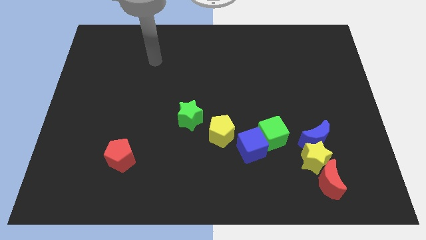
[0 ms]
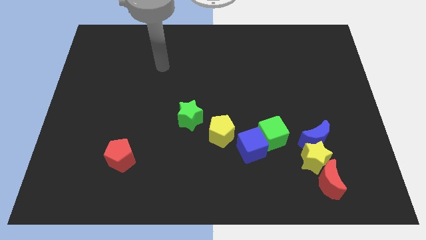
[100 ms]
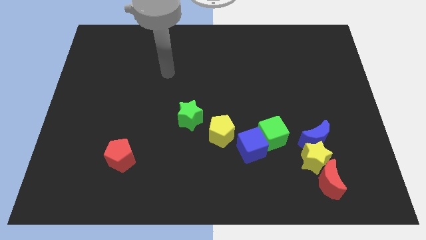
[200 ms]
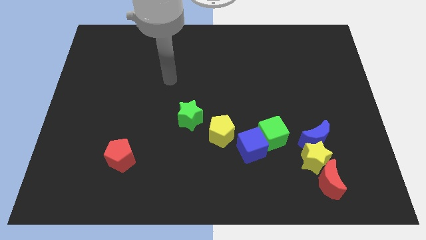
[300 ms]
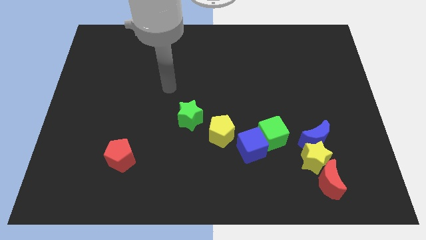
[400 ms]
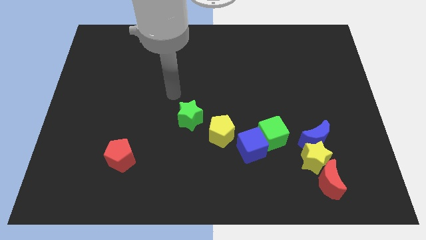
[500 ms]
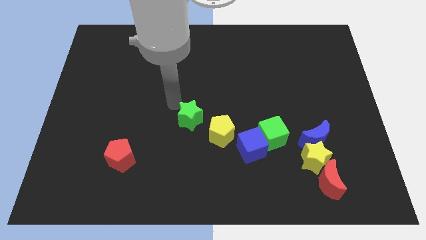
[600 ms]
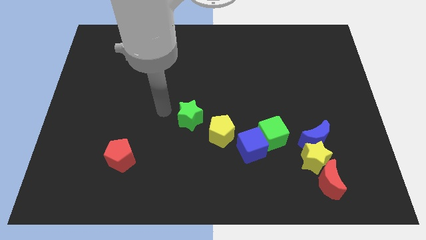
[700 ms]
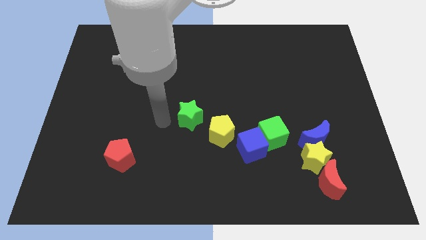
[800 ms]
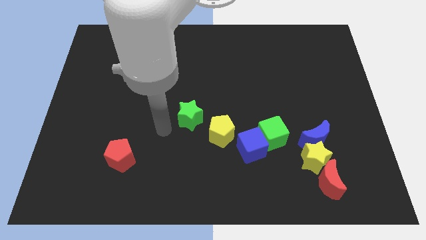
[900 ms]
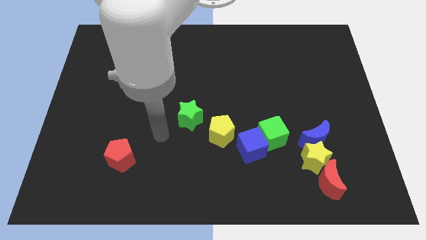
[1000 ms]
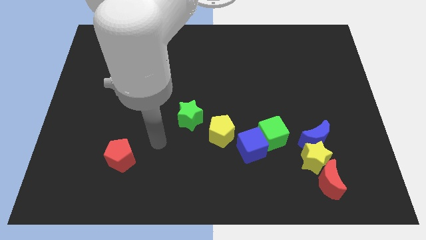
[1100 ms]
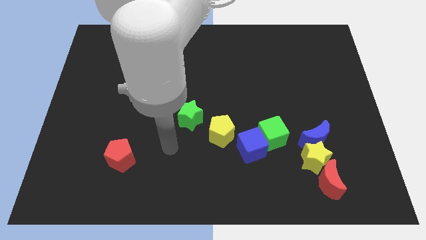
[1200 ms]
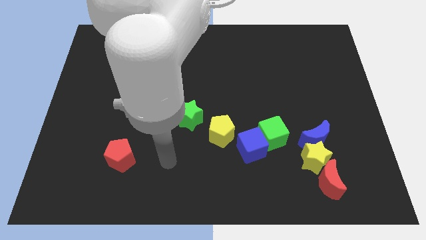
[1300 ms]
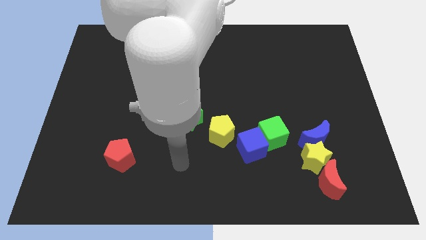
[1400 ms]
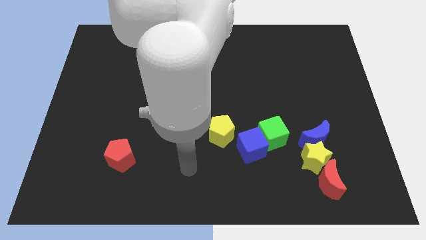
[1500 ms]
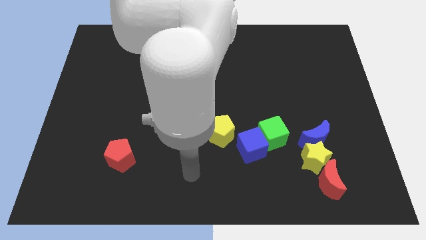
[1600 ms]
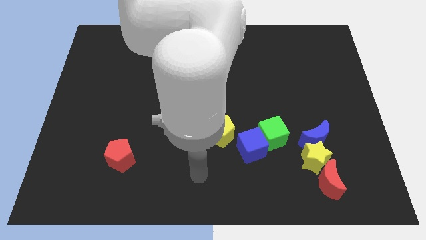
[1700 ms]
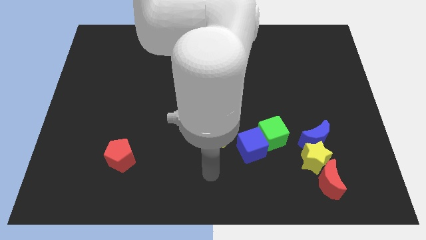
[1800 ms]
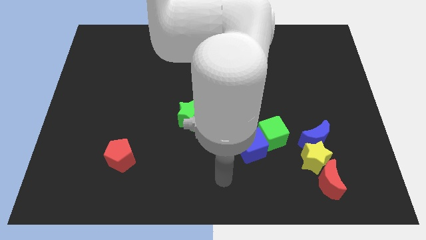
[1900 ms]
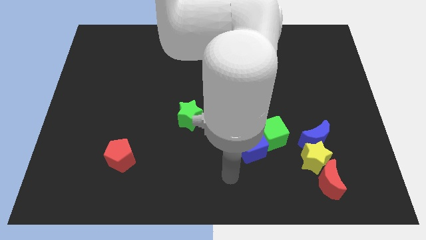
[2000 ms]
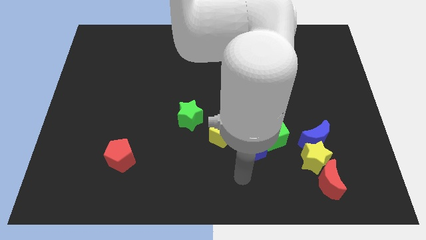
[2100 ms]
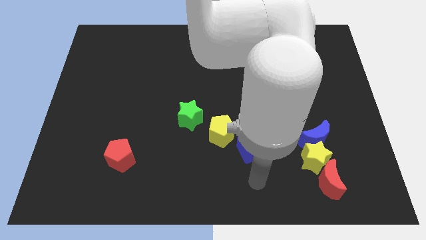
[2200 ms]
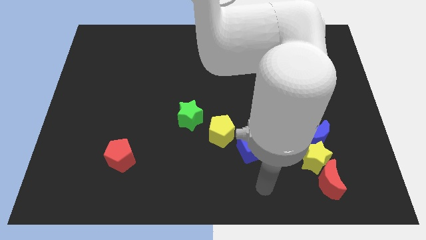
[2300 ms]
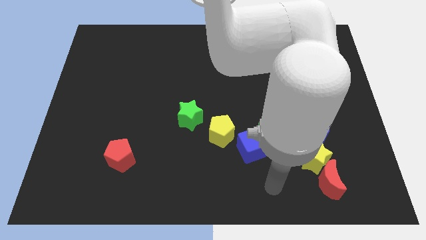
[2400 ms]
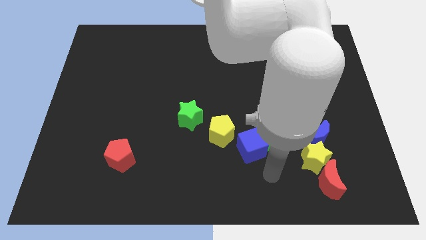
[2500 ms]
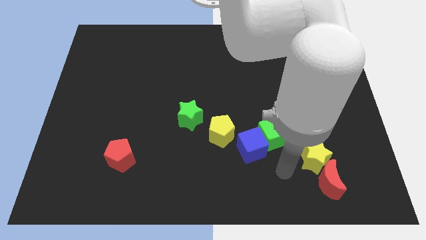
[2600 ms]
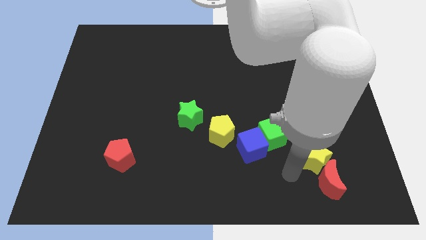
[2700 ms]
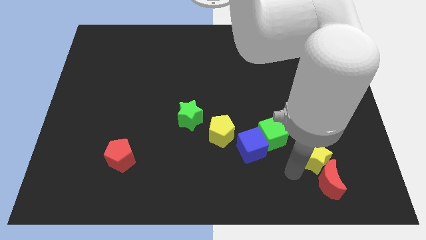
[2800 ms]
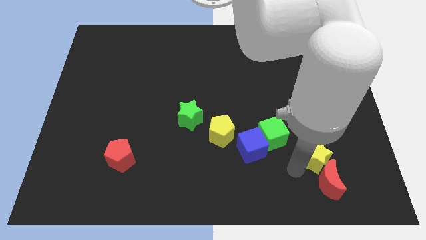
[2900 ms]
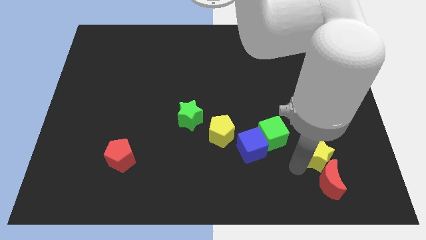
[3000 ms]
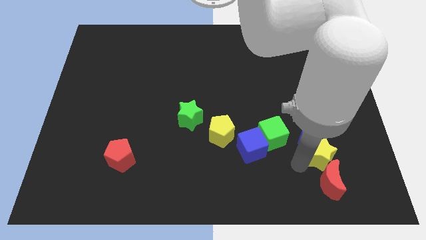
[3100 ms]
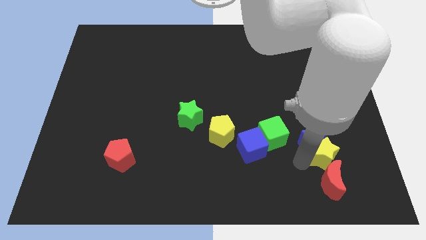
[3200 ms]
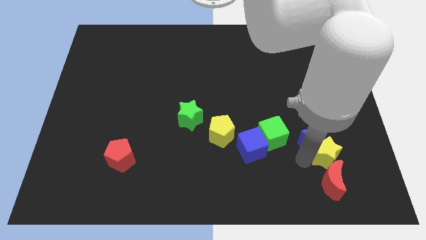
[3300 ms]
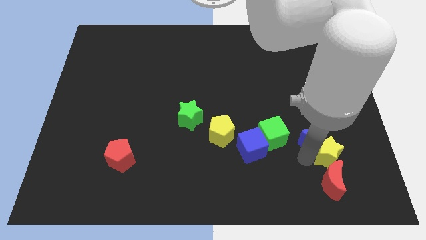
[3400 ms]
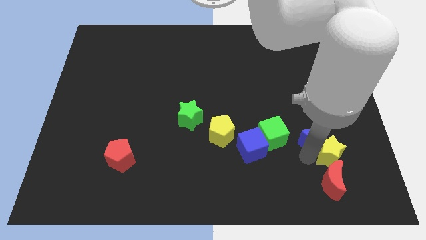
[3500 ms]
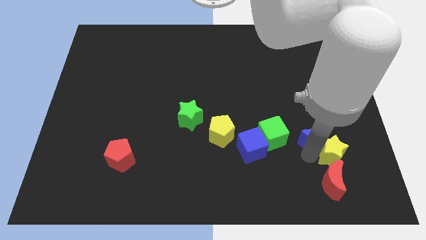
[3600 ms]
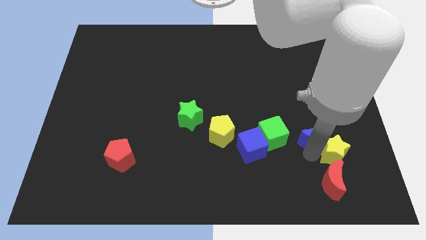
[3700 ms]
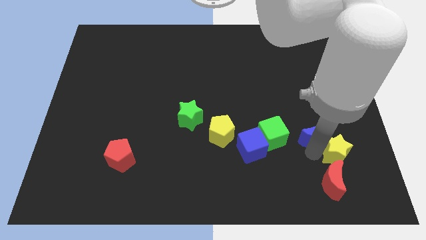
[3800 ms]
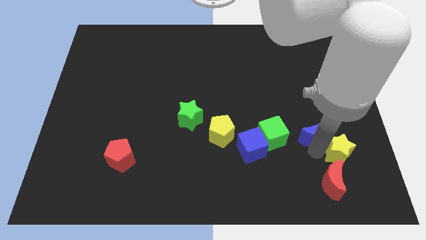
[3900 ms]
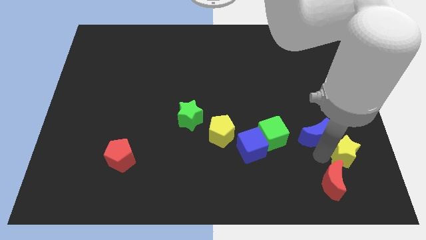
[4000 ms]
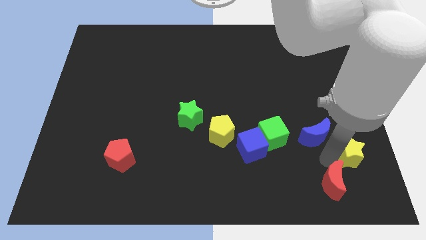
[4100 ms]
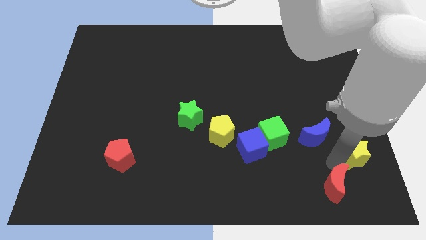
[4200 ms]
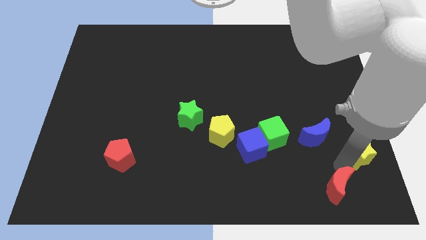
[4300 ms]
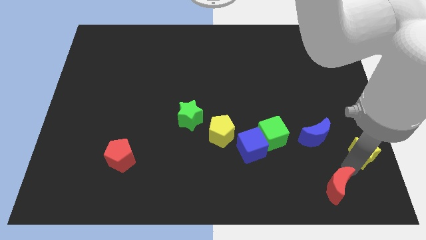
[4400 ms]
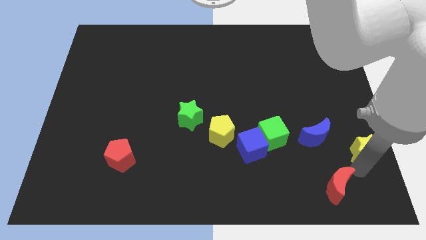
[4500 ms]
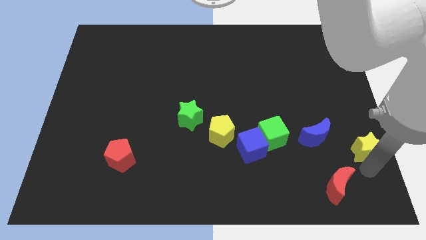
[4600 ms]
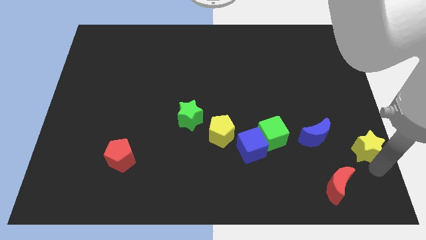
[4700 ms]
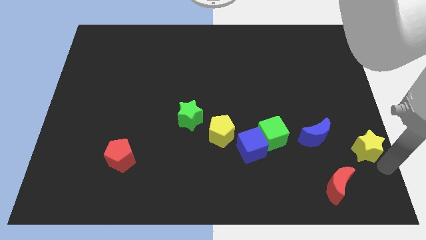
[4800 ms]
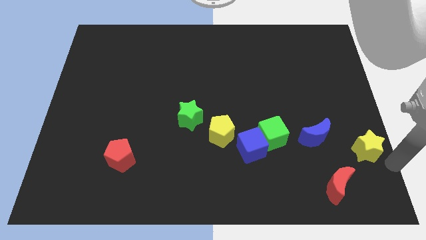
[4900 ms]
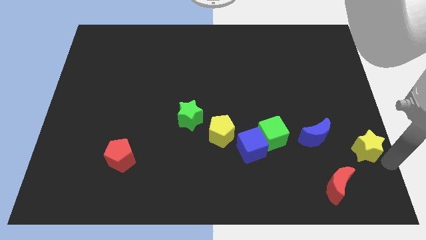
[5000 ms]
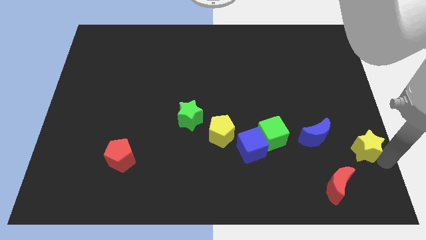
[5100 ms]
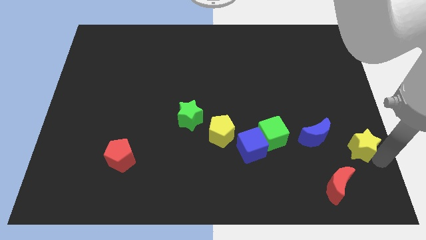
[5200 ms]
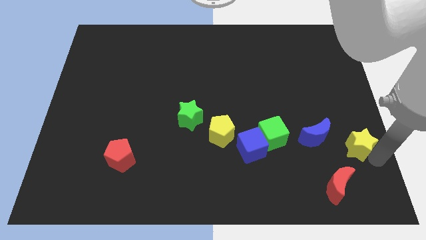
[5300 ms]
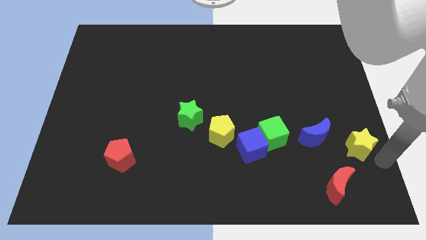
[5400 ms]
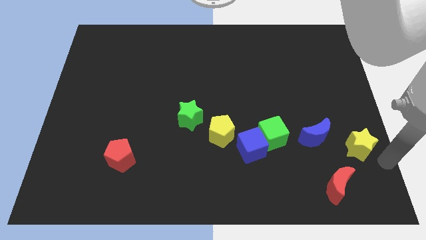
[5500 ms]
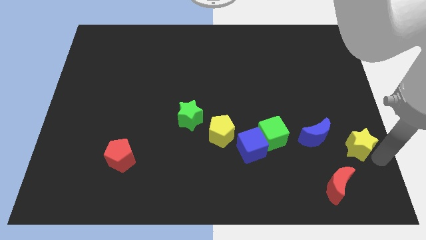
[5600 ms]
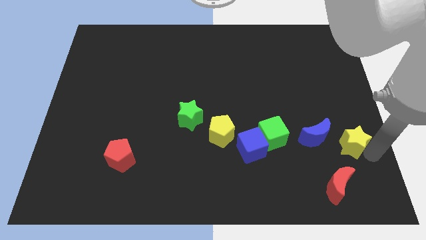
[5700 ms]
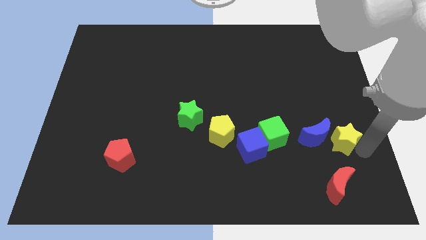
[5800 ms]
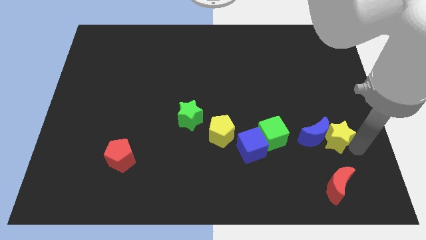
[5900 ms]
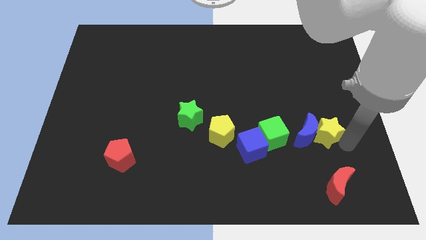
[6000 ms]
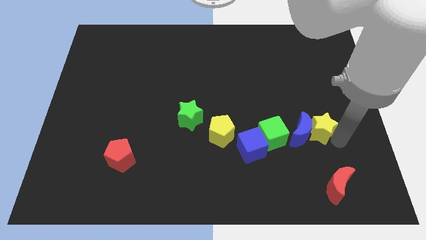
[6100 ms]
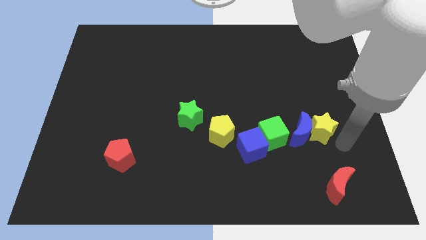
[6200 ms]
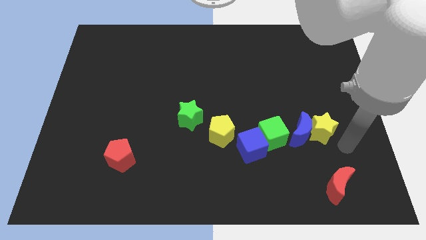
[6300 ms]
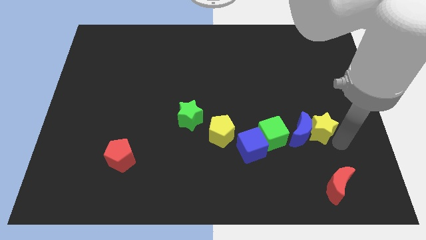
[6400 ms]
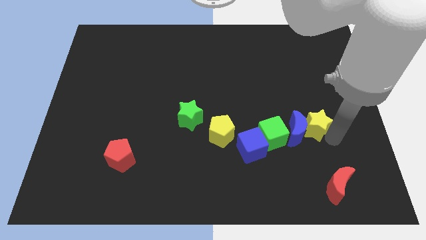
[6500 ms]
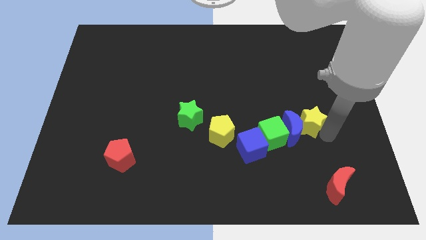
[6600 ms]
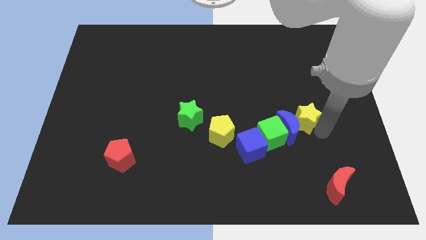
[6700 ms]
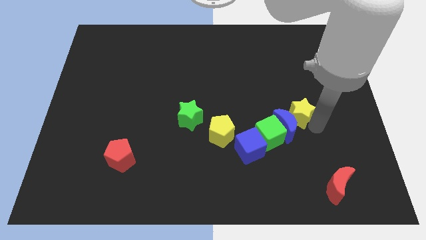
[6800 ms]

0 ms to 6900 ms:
slide the yellow star somewhat upwards and then left

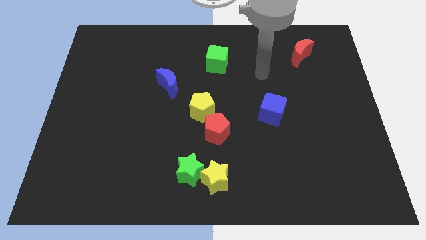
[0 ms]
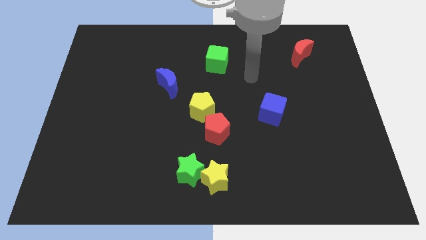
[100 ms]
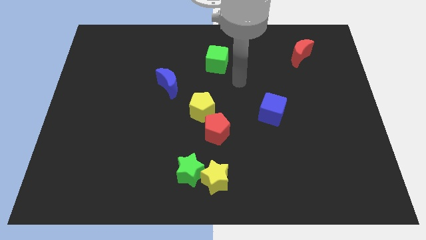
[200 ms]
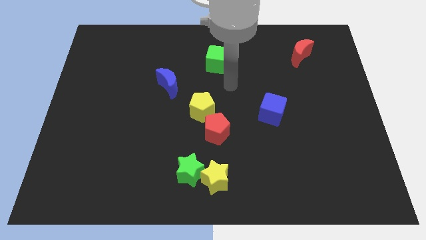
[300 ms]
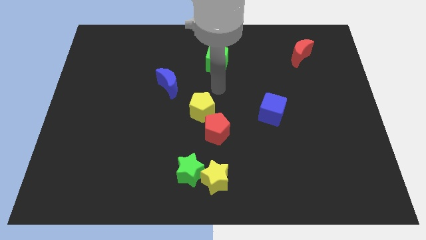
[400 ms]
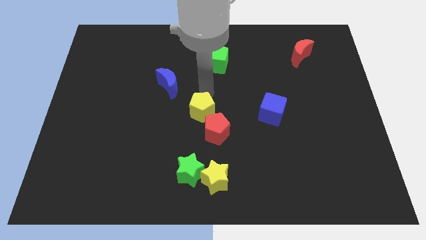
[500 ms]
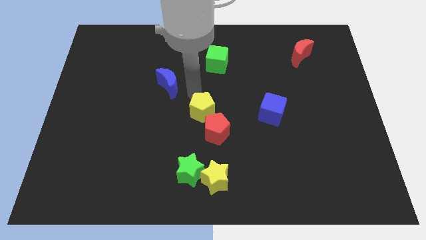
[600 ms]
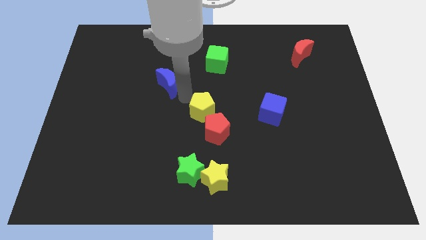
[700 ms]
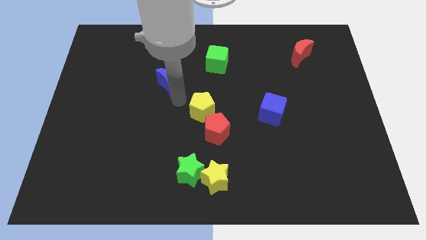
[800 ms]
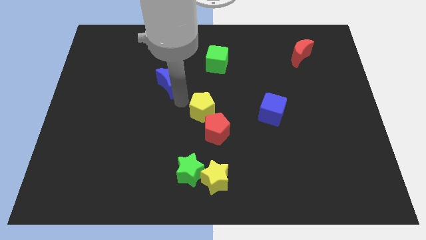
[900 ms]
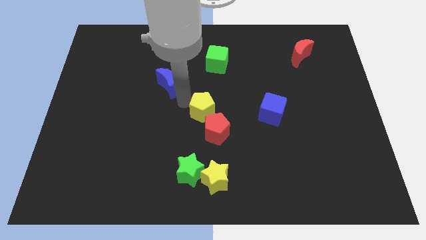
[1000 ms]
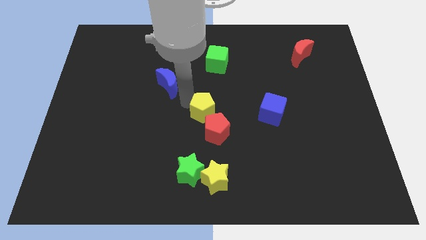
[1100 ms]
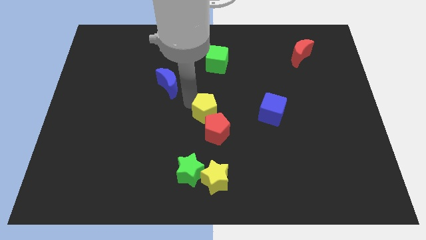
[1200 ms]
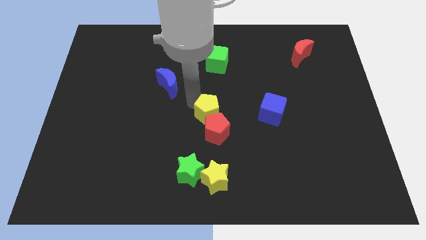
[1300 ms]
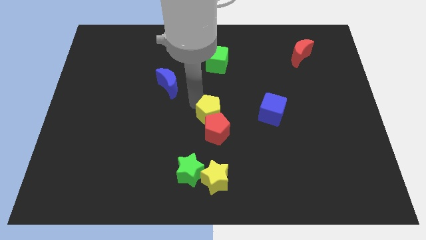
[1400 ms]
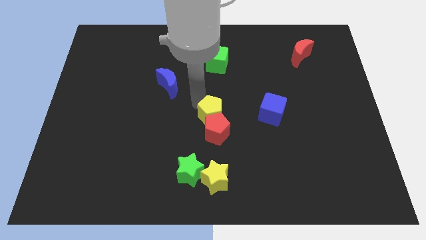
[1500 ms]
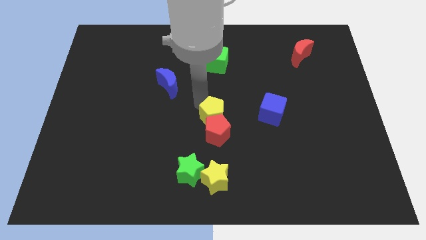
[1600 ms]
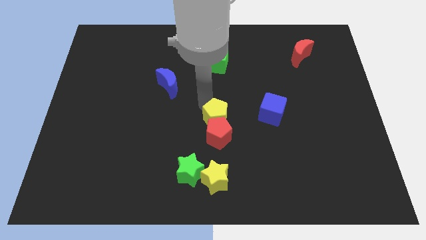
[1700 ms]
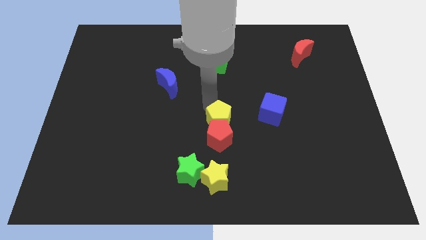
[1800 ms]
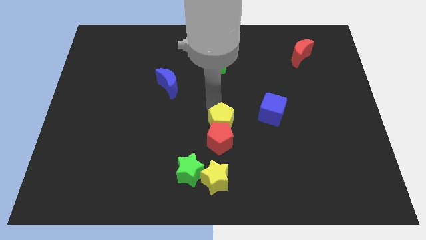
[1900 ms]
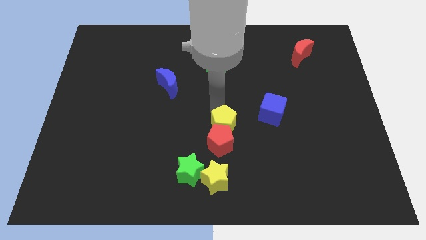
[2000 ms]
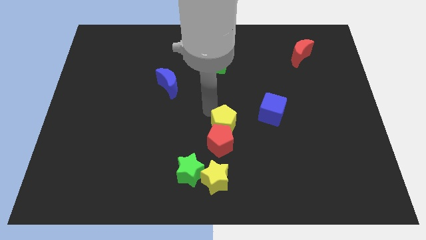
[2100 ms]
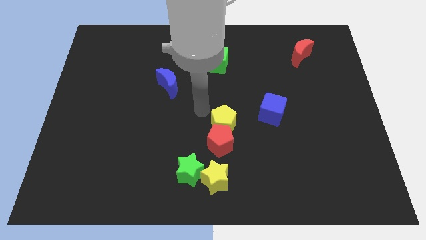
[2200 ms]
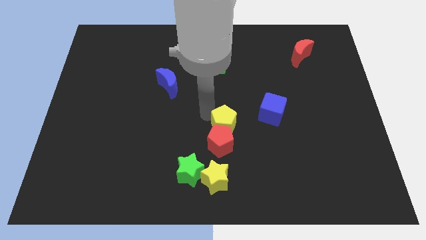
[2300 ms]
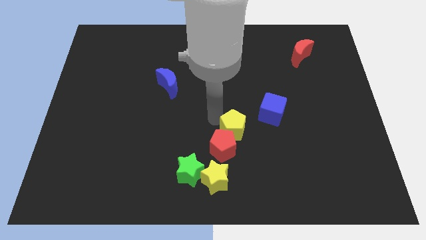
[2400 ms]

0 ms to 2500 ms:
slightly push the yellow pentagon downwards and then right
